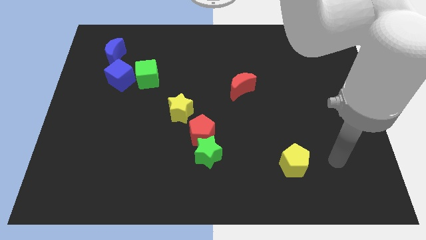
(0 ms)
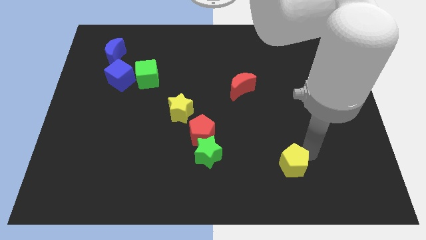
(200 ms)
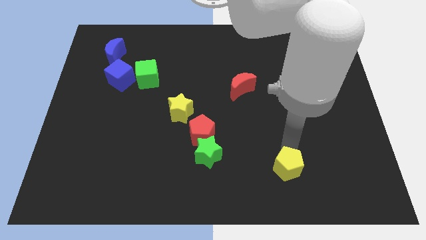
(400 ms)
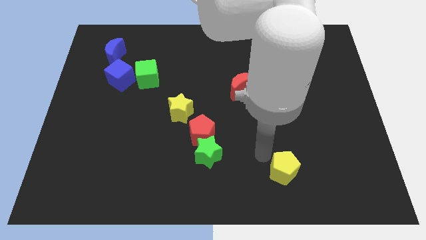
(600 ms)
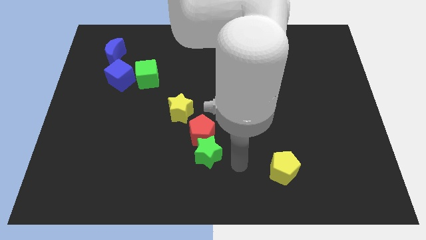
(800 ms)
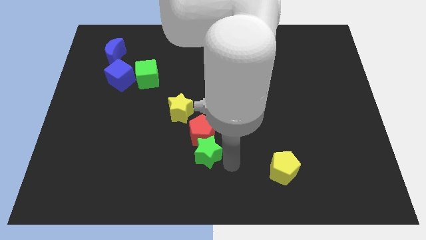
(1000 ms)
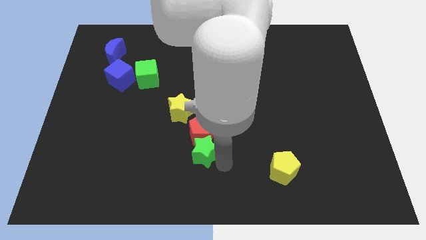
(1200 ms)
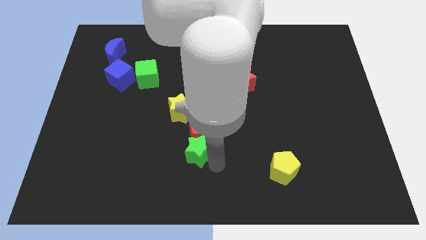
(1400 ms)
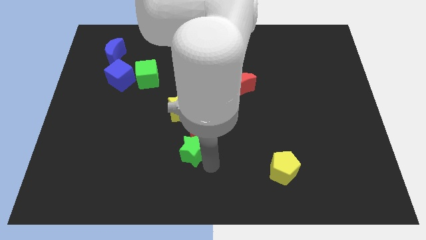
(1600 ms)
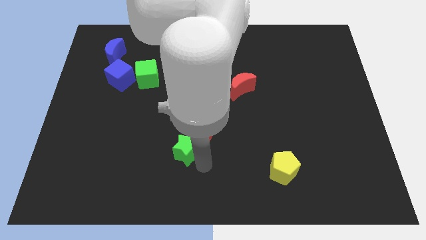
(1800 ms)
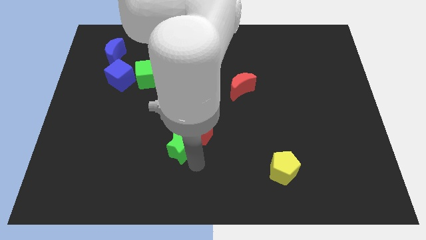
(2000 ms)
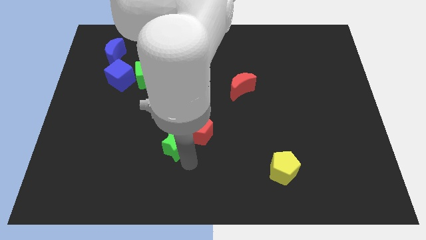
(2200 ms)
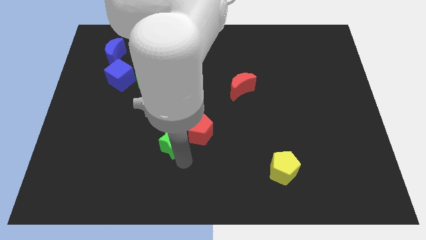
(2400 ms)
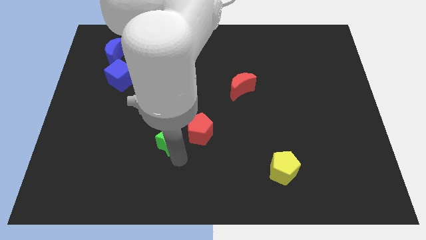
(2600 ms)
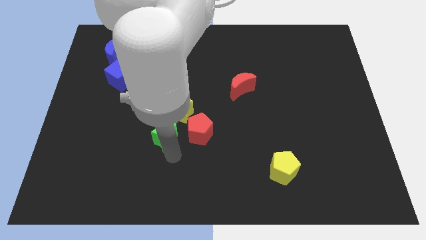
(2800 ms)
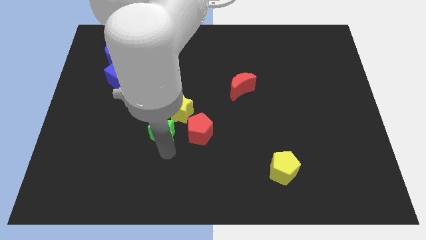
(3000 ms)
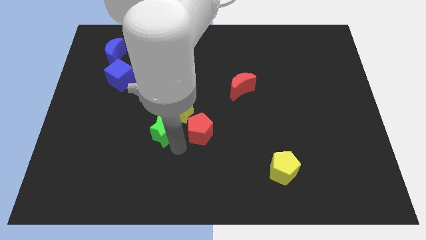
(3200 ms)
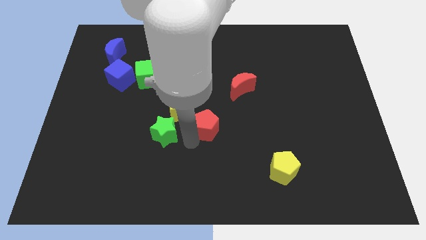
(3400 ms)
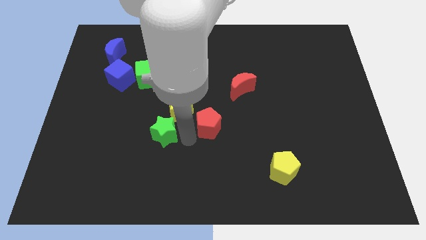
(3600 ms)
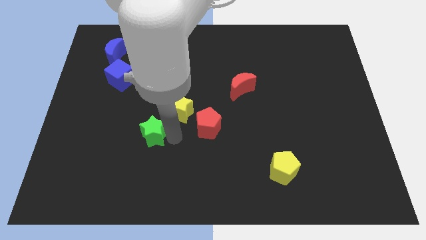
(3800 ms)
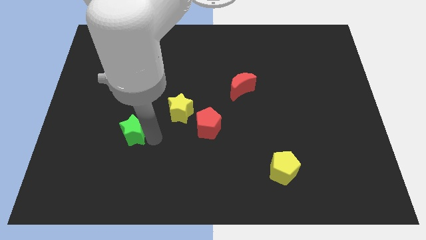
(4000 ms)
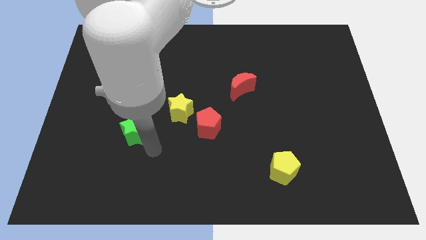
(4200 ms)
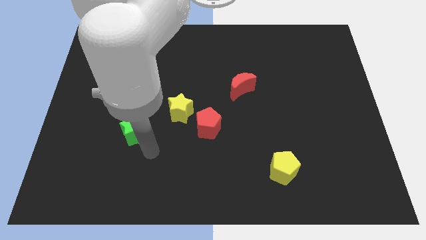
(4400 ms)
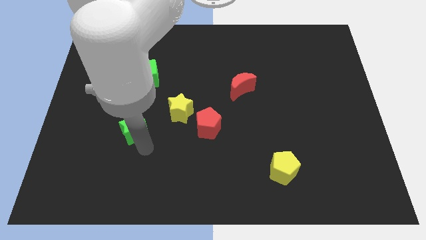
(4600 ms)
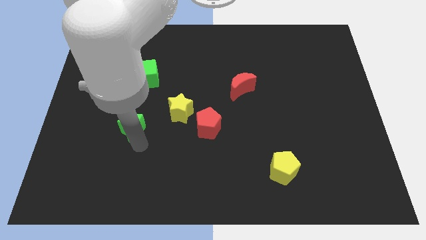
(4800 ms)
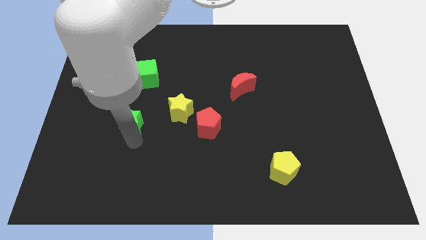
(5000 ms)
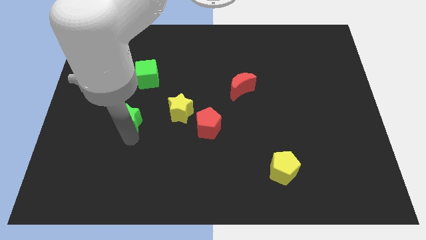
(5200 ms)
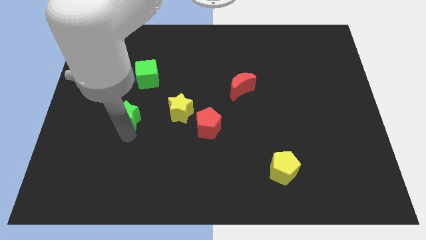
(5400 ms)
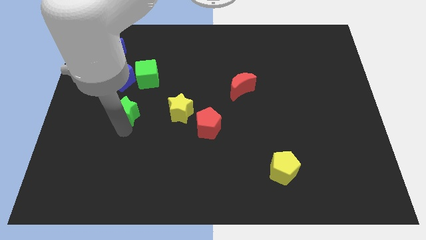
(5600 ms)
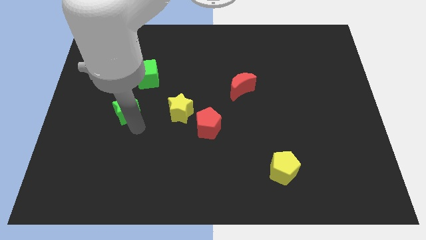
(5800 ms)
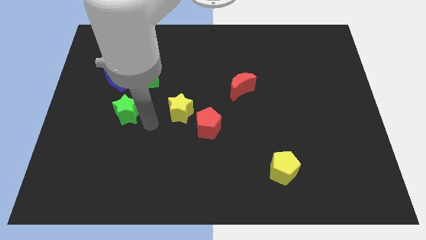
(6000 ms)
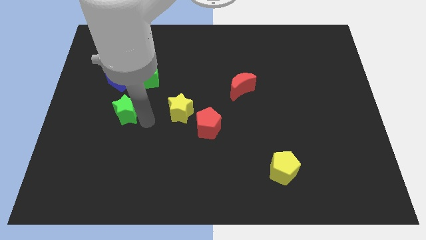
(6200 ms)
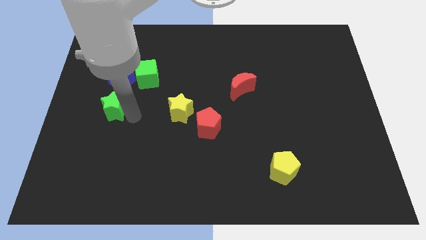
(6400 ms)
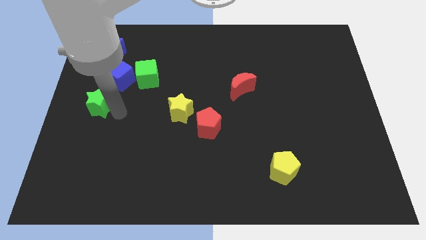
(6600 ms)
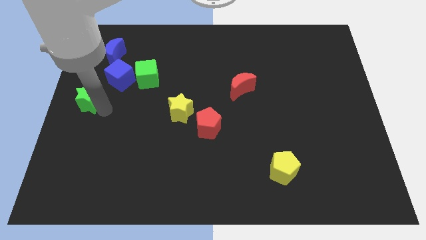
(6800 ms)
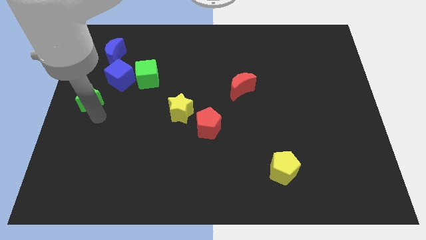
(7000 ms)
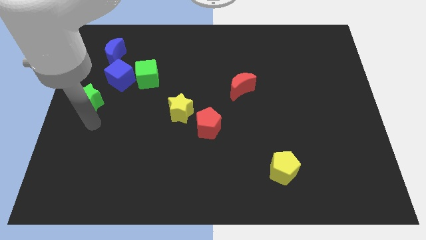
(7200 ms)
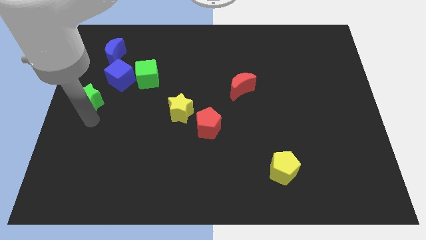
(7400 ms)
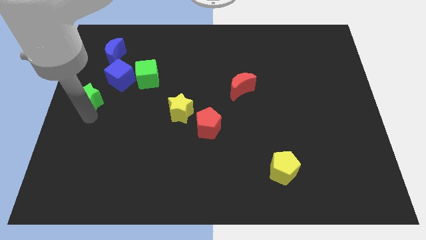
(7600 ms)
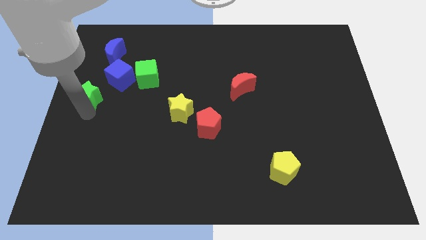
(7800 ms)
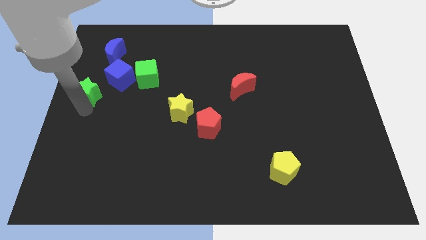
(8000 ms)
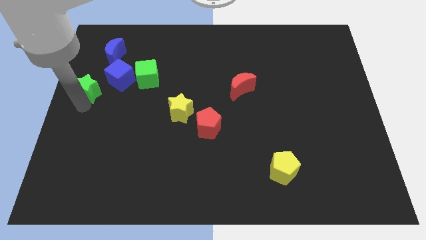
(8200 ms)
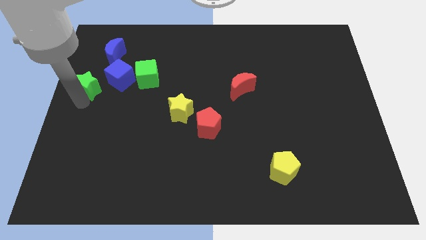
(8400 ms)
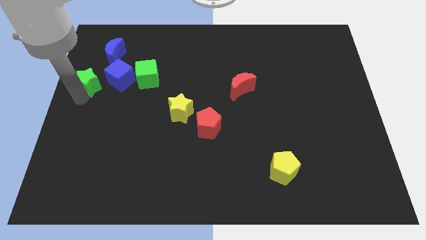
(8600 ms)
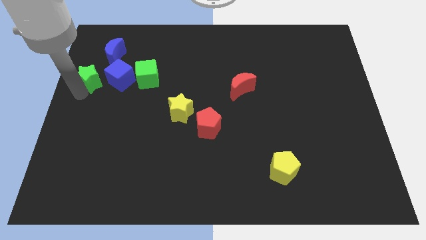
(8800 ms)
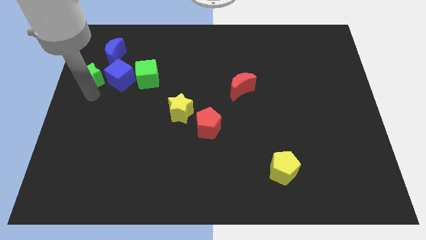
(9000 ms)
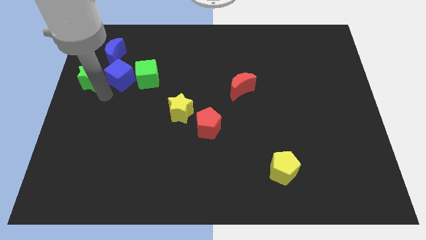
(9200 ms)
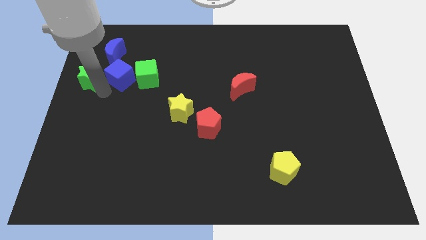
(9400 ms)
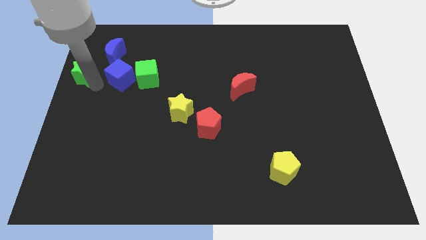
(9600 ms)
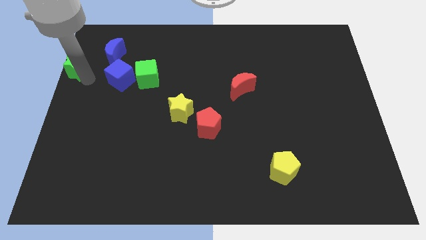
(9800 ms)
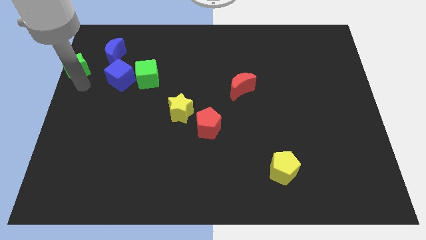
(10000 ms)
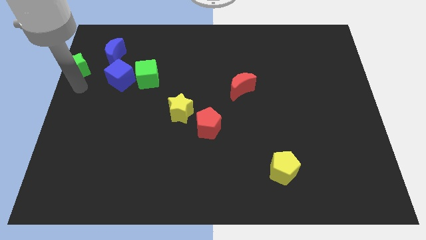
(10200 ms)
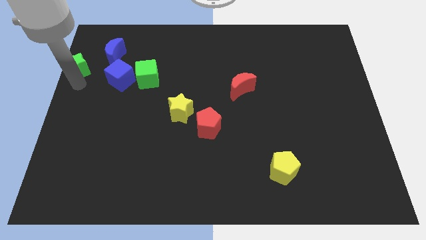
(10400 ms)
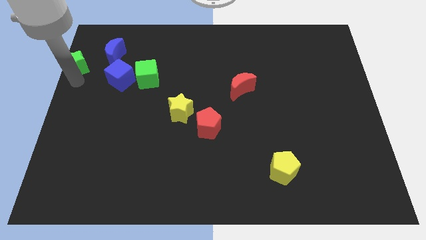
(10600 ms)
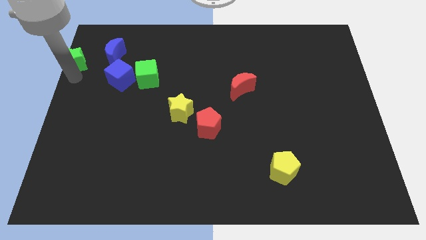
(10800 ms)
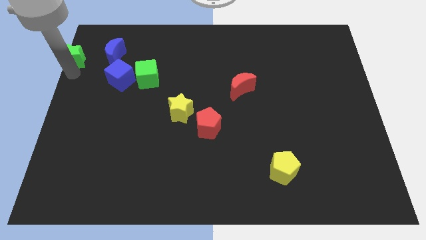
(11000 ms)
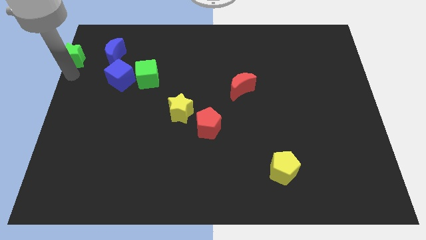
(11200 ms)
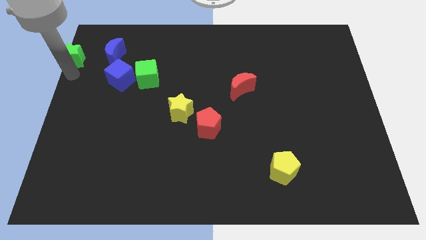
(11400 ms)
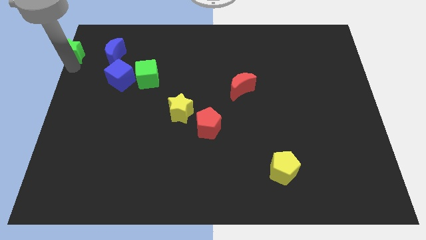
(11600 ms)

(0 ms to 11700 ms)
put the green star to the top left
